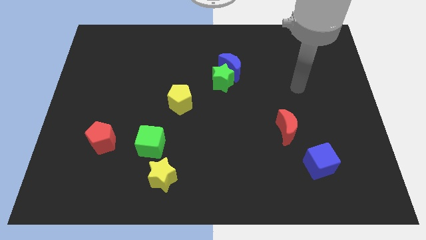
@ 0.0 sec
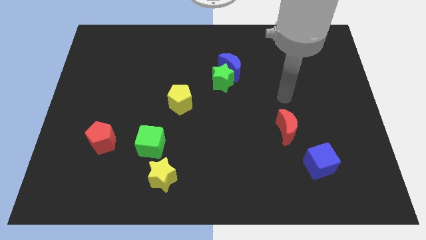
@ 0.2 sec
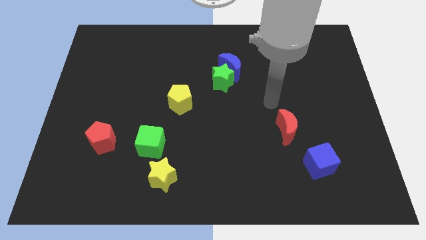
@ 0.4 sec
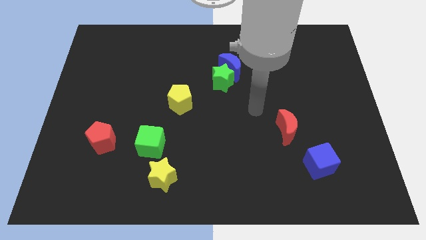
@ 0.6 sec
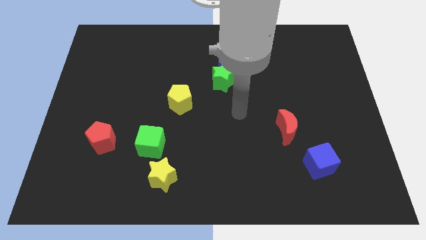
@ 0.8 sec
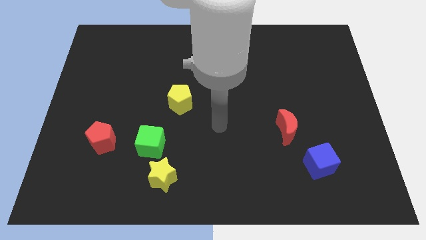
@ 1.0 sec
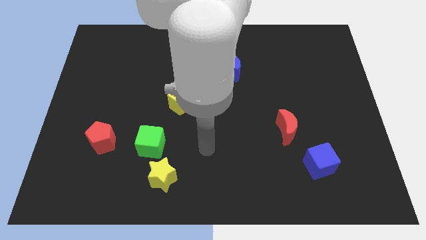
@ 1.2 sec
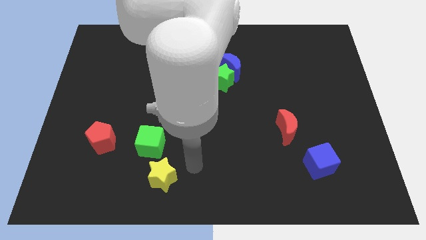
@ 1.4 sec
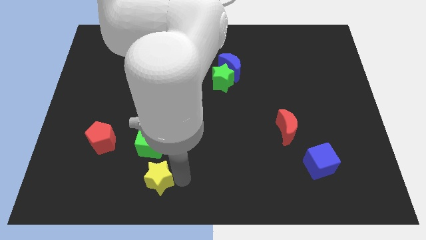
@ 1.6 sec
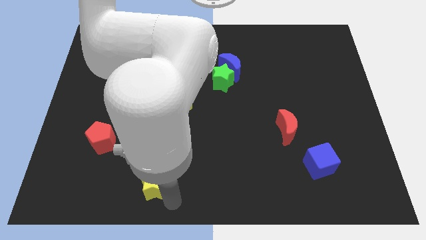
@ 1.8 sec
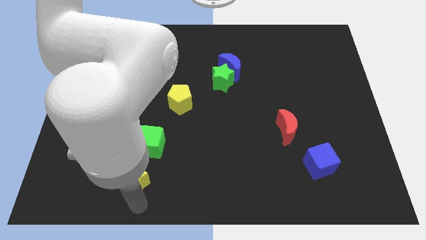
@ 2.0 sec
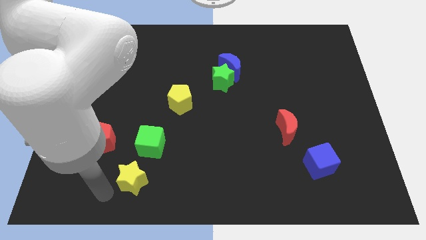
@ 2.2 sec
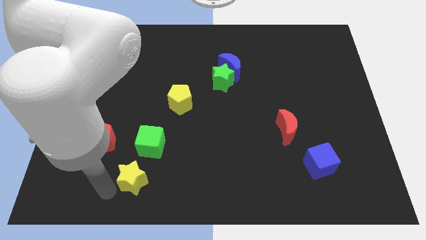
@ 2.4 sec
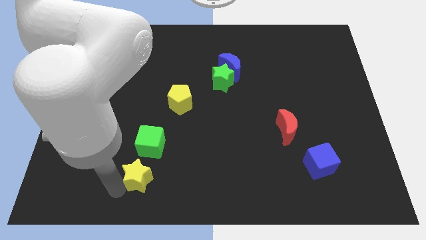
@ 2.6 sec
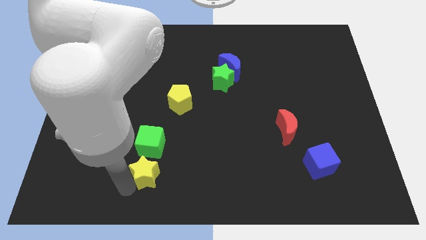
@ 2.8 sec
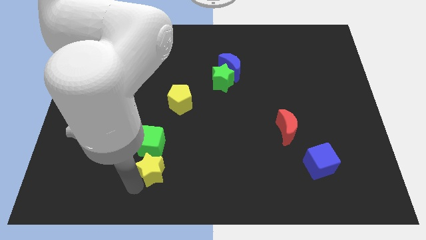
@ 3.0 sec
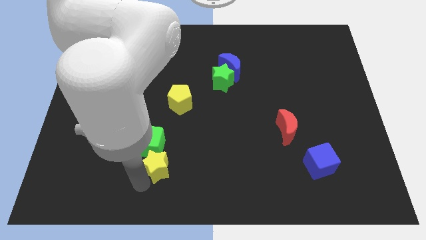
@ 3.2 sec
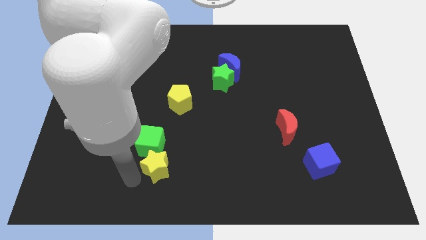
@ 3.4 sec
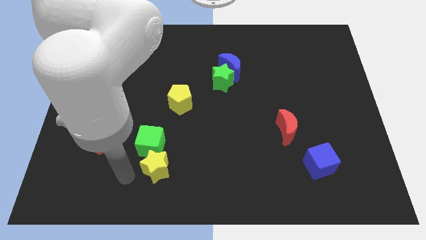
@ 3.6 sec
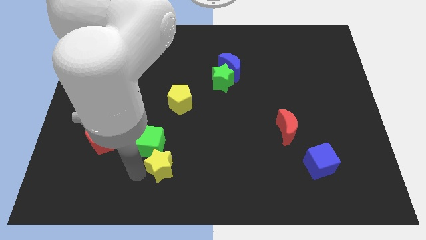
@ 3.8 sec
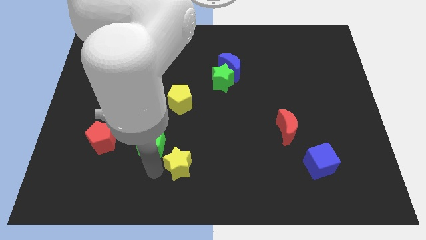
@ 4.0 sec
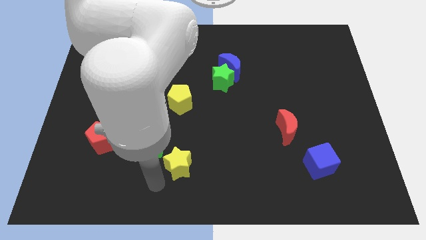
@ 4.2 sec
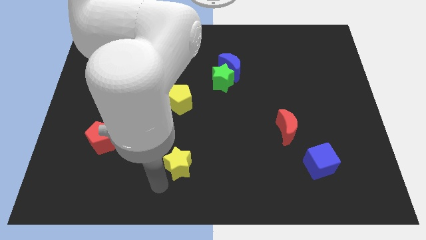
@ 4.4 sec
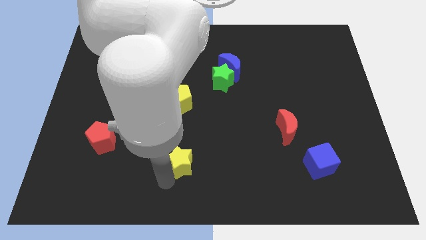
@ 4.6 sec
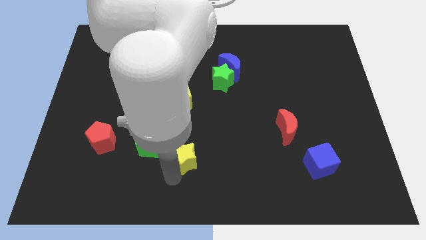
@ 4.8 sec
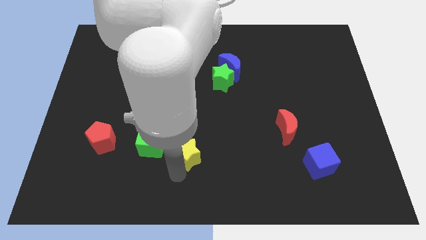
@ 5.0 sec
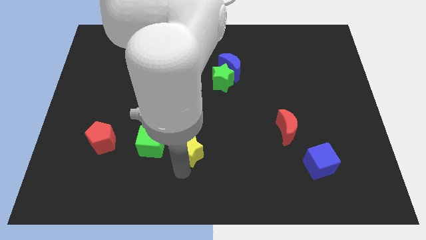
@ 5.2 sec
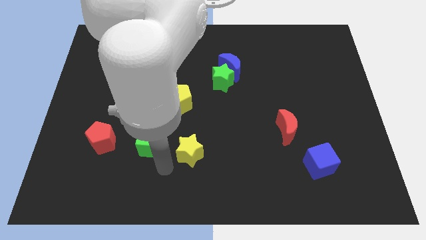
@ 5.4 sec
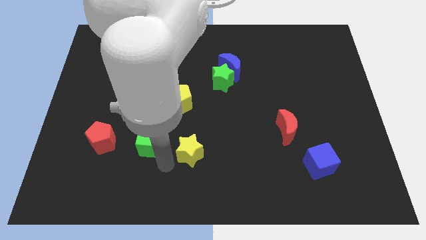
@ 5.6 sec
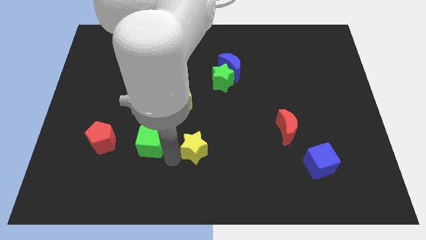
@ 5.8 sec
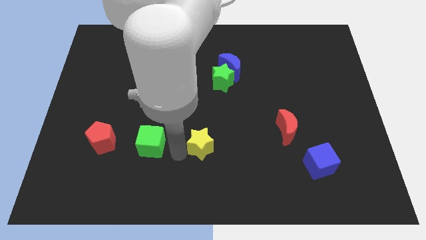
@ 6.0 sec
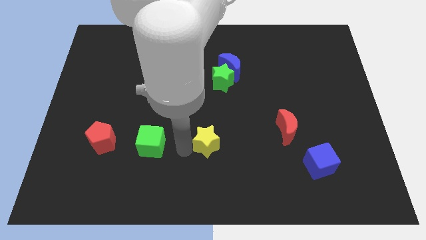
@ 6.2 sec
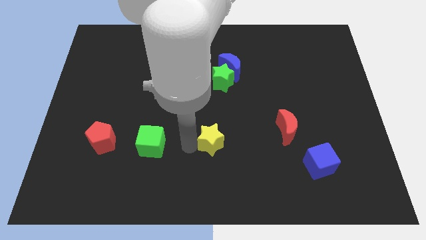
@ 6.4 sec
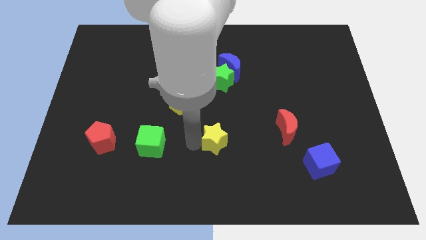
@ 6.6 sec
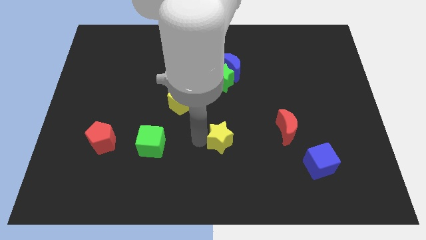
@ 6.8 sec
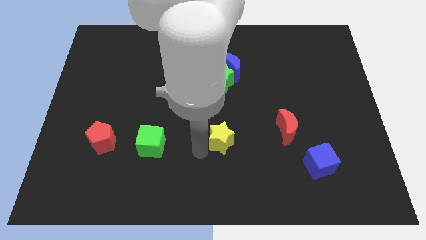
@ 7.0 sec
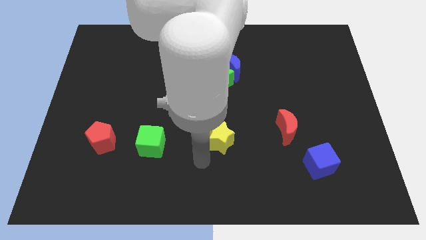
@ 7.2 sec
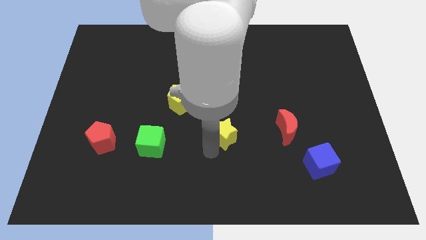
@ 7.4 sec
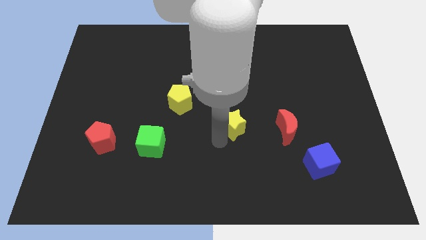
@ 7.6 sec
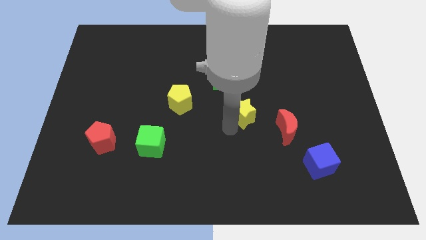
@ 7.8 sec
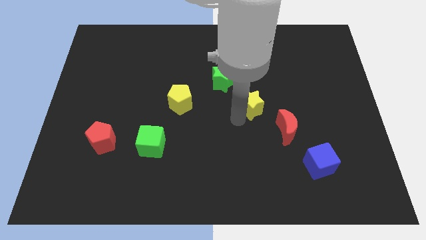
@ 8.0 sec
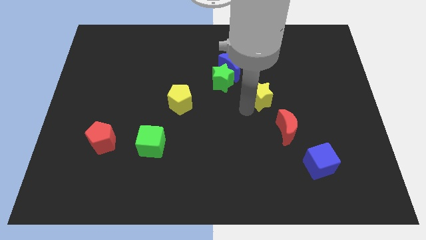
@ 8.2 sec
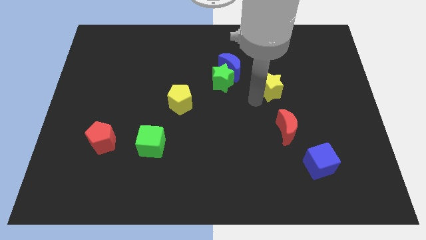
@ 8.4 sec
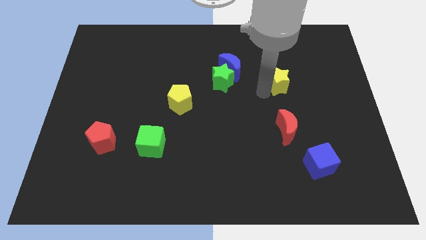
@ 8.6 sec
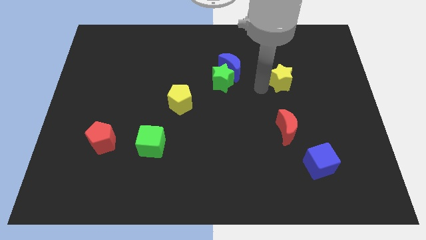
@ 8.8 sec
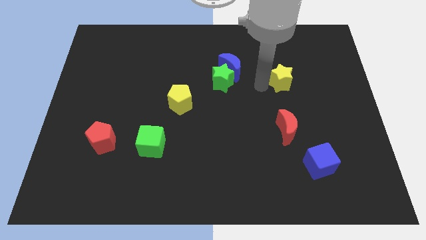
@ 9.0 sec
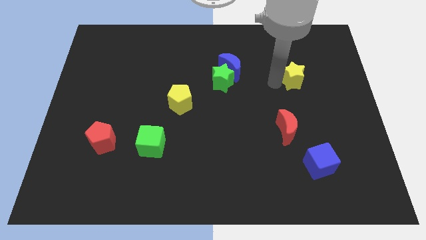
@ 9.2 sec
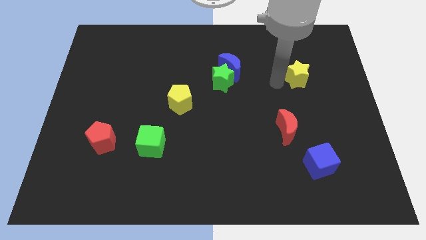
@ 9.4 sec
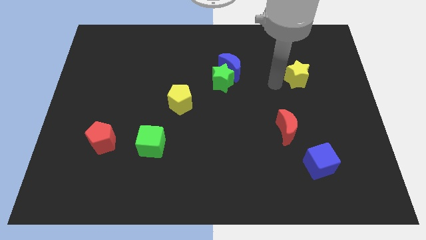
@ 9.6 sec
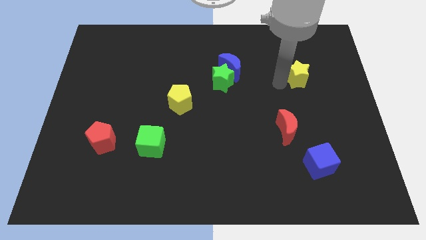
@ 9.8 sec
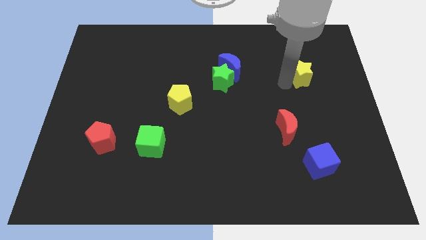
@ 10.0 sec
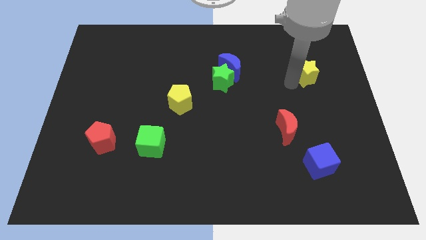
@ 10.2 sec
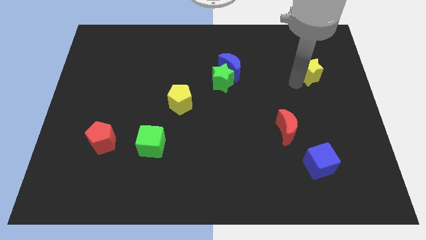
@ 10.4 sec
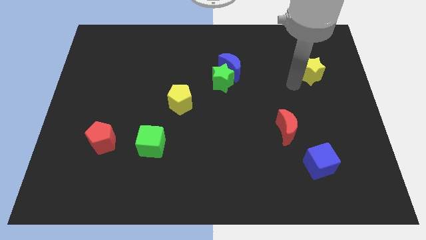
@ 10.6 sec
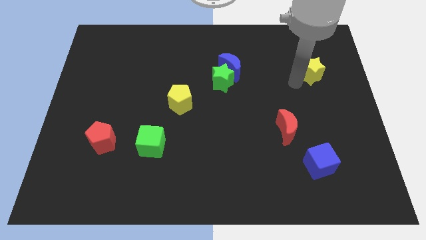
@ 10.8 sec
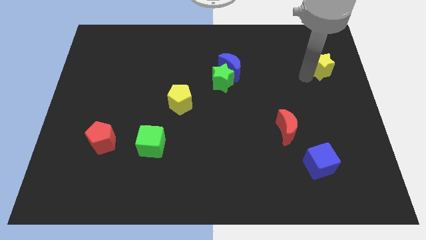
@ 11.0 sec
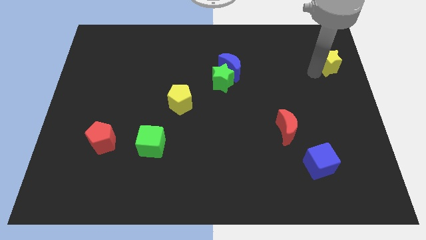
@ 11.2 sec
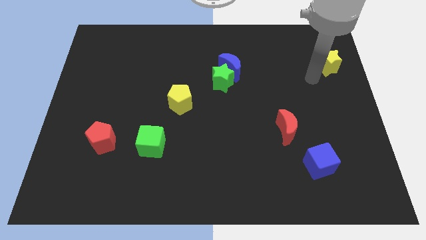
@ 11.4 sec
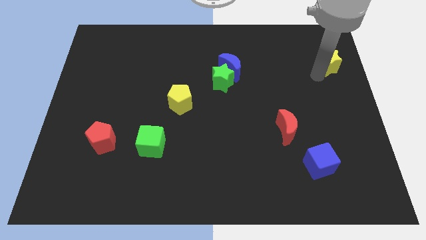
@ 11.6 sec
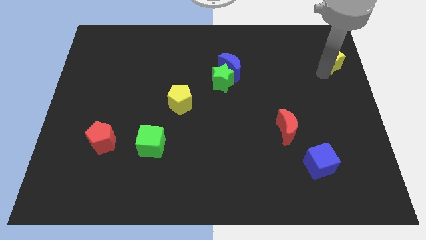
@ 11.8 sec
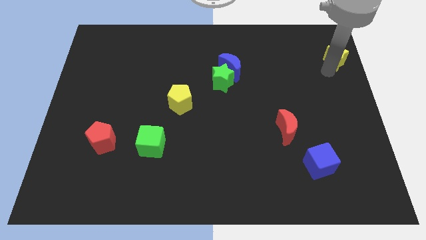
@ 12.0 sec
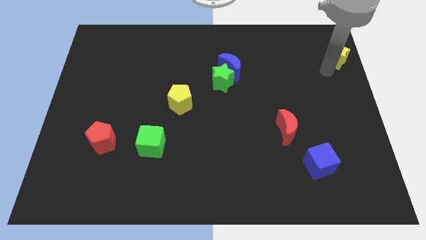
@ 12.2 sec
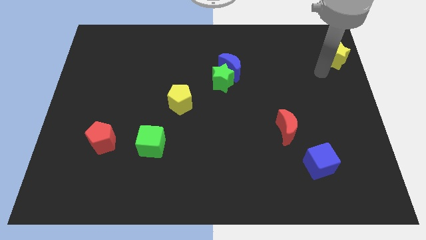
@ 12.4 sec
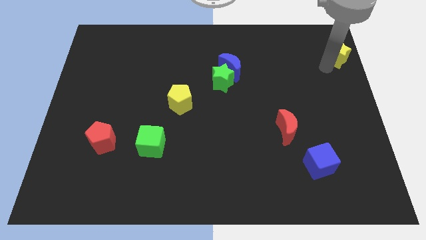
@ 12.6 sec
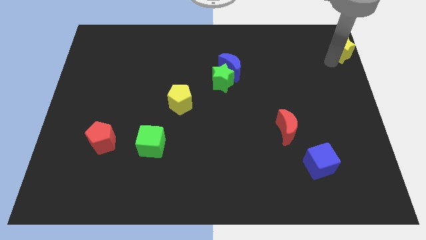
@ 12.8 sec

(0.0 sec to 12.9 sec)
move the yellow star to the top right corner
